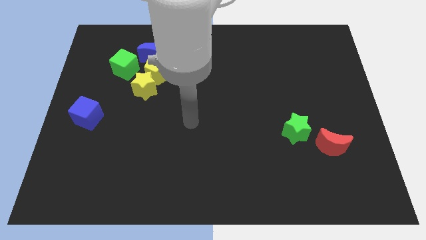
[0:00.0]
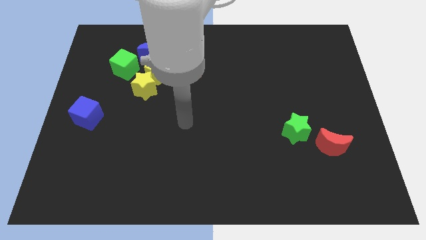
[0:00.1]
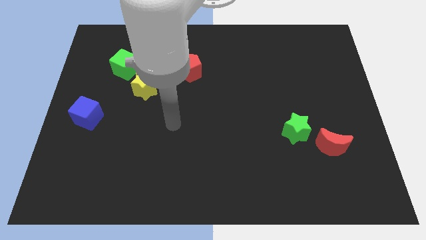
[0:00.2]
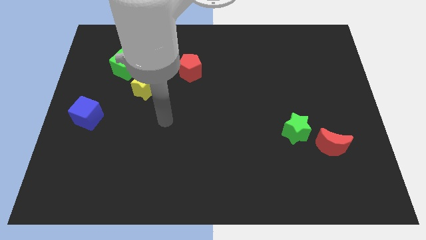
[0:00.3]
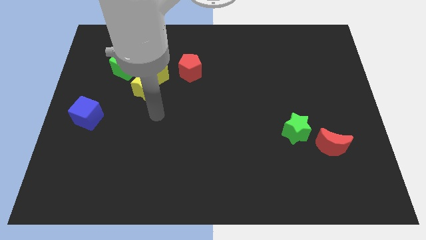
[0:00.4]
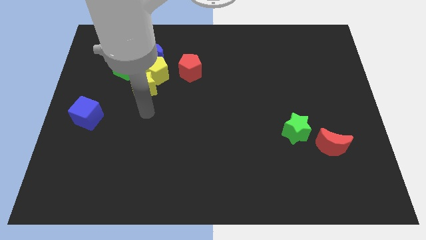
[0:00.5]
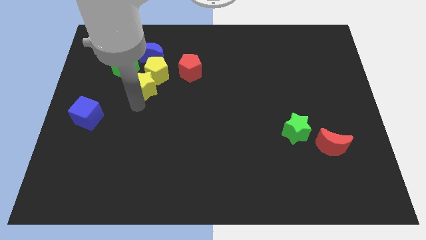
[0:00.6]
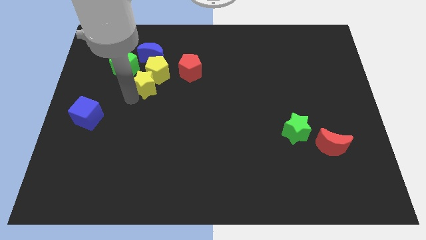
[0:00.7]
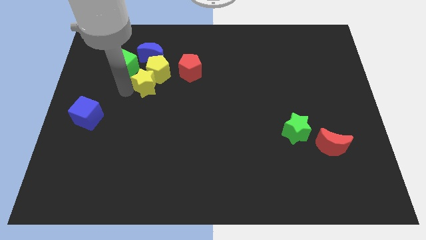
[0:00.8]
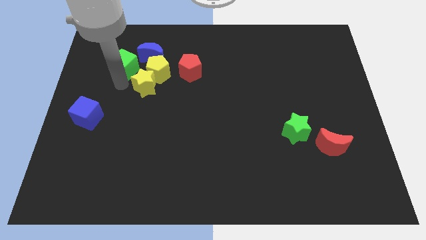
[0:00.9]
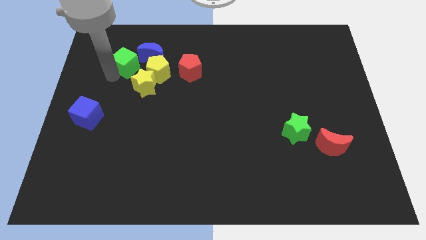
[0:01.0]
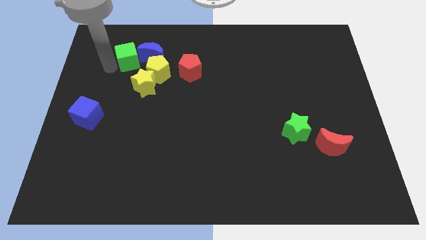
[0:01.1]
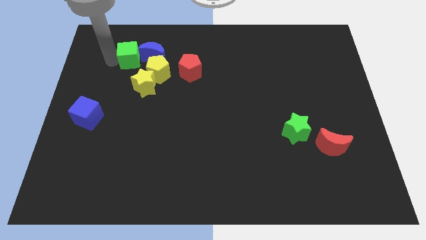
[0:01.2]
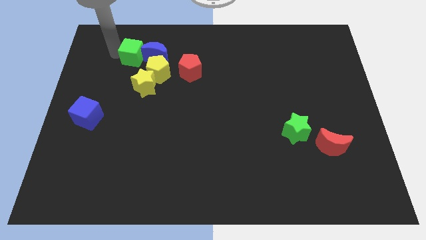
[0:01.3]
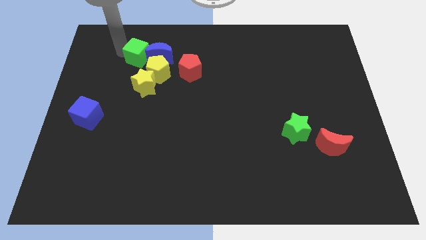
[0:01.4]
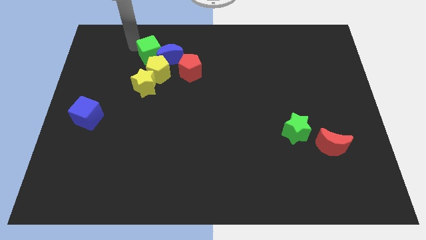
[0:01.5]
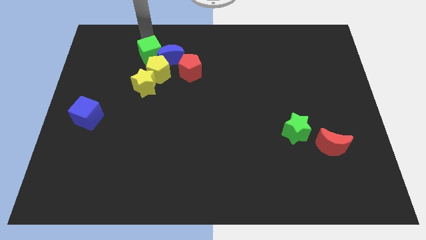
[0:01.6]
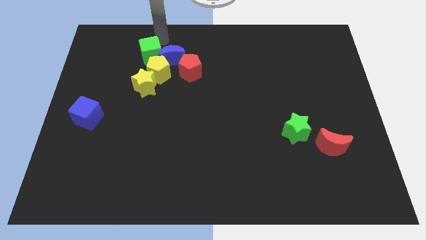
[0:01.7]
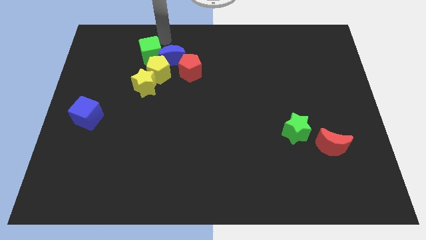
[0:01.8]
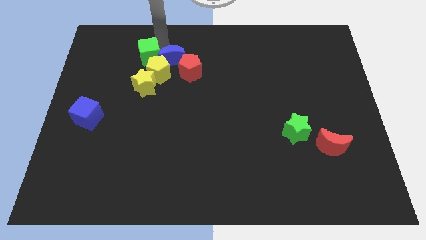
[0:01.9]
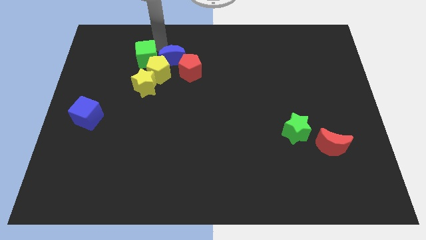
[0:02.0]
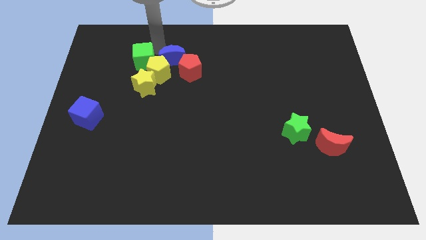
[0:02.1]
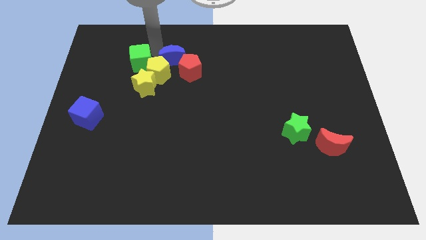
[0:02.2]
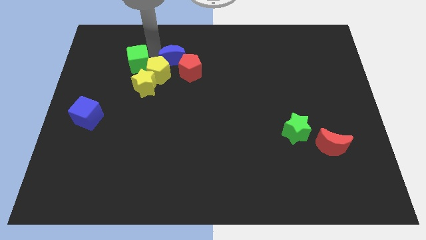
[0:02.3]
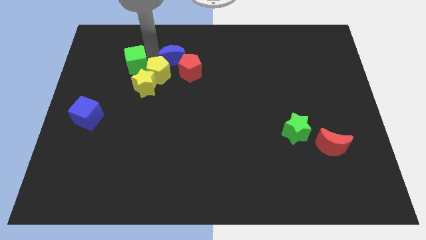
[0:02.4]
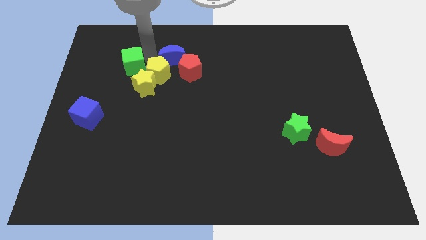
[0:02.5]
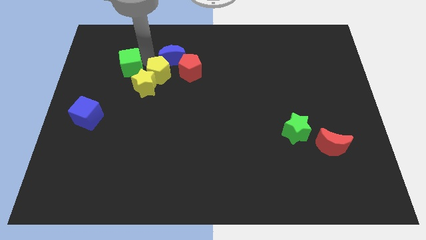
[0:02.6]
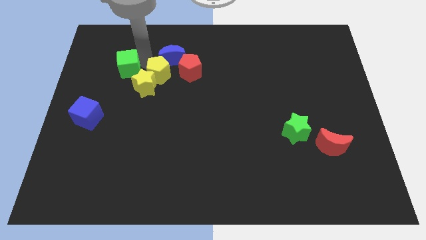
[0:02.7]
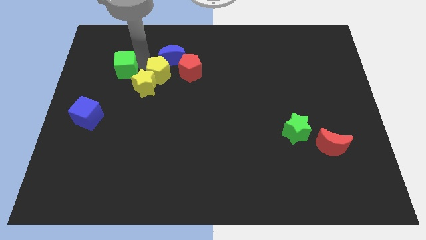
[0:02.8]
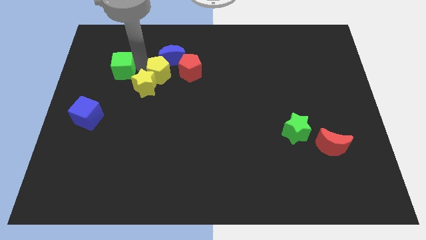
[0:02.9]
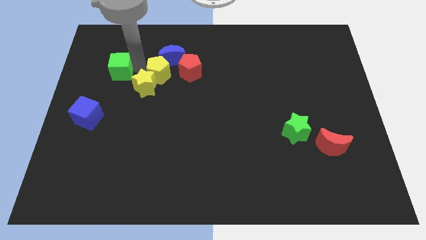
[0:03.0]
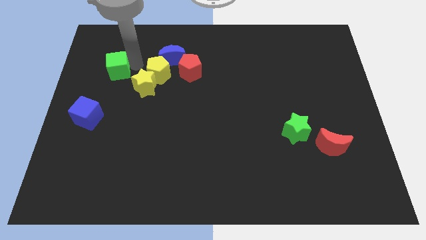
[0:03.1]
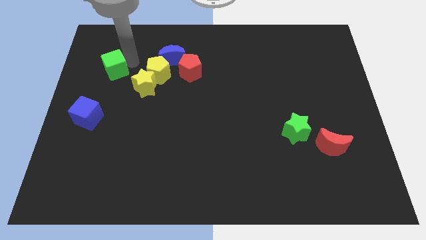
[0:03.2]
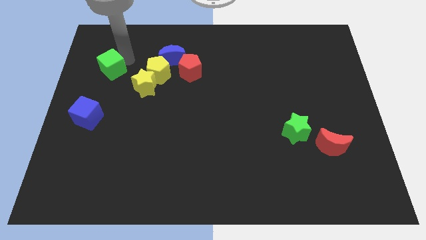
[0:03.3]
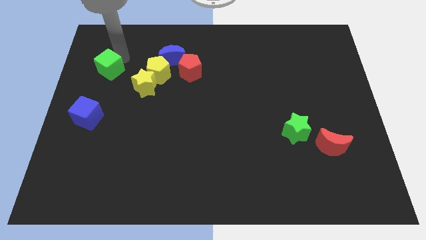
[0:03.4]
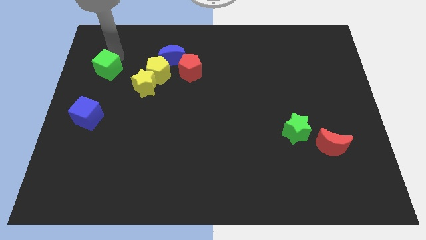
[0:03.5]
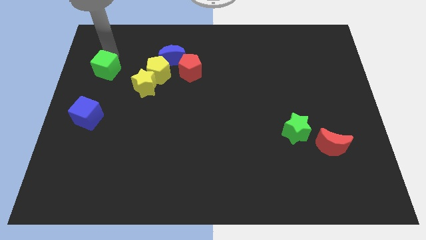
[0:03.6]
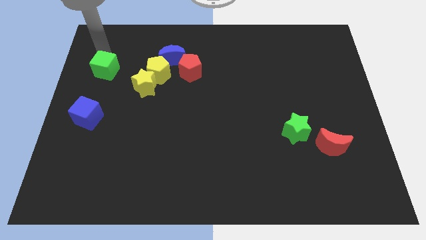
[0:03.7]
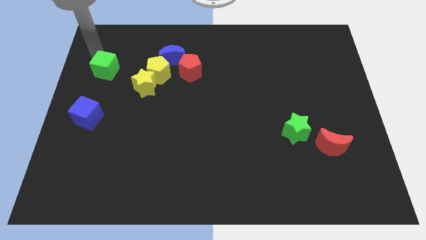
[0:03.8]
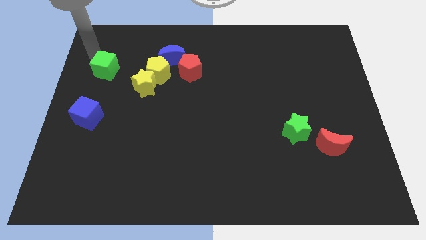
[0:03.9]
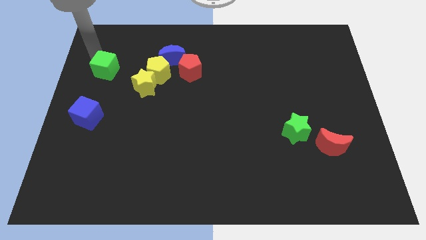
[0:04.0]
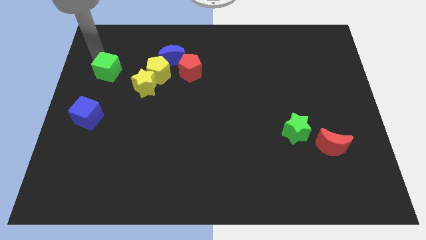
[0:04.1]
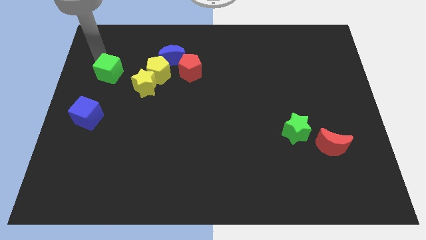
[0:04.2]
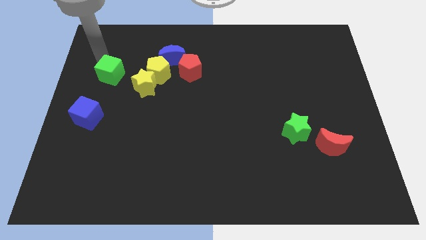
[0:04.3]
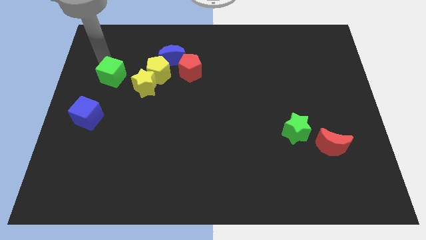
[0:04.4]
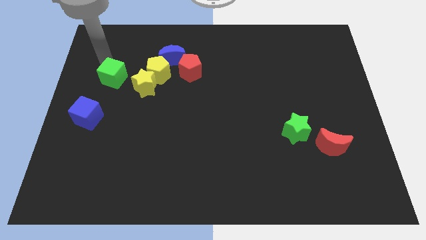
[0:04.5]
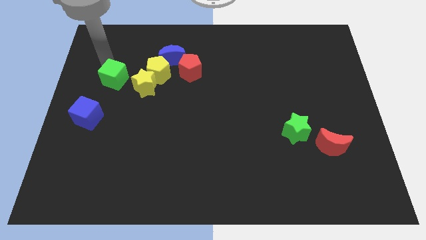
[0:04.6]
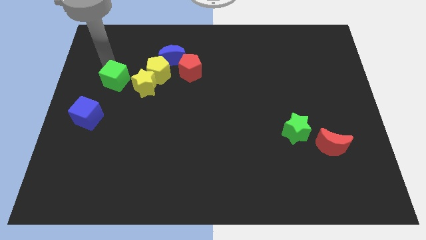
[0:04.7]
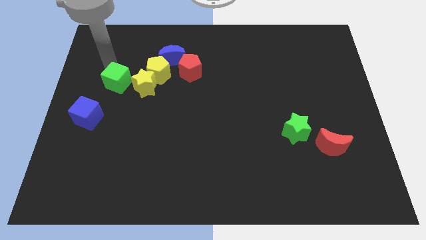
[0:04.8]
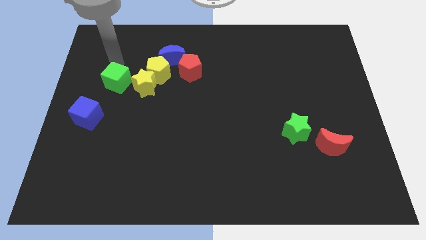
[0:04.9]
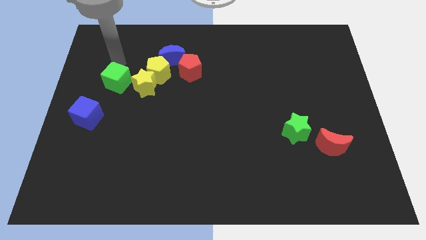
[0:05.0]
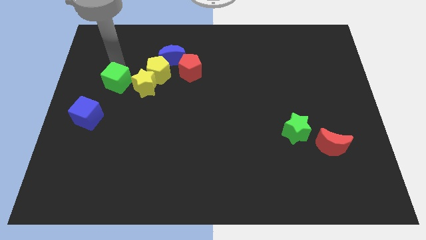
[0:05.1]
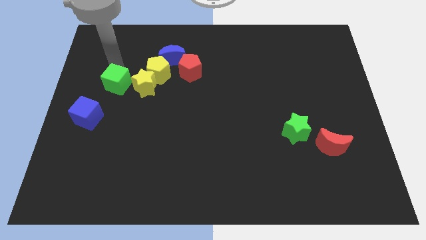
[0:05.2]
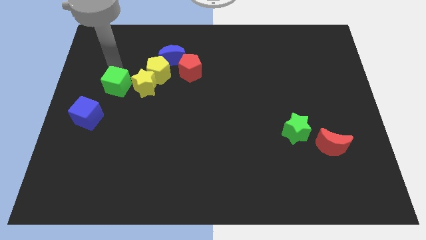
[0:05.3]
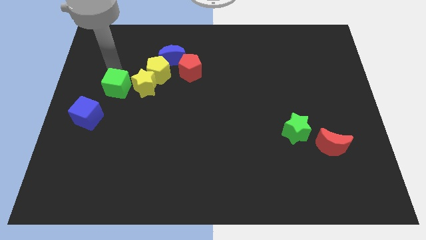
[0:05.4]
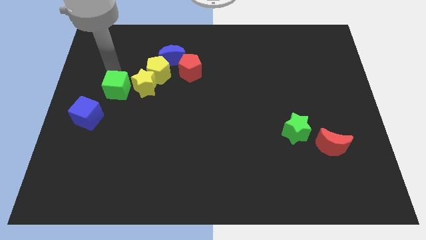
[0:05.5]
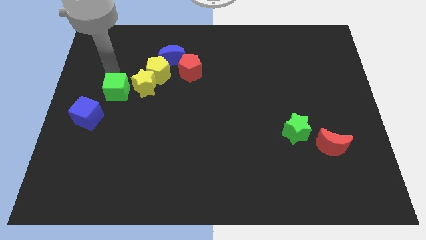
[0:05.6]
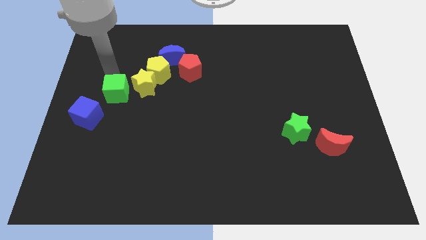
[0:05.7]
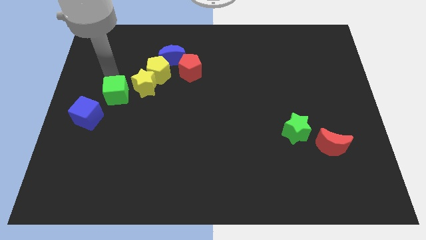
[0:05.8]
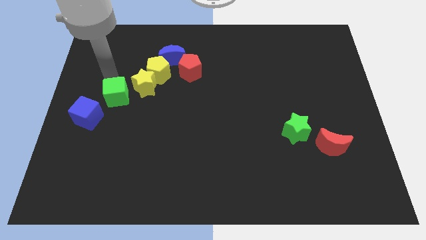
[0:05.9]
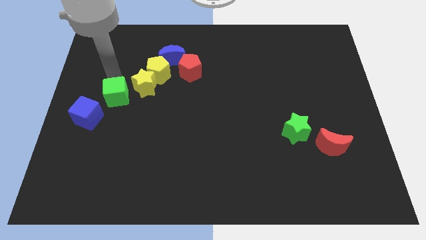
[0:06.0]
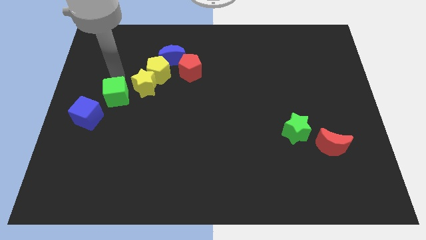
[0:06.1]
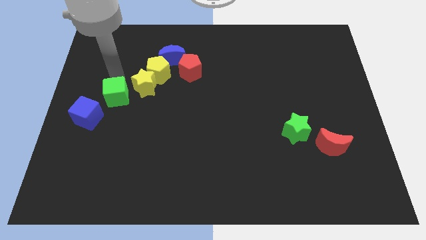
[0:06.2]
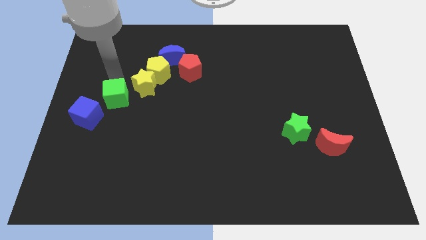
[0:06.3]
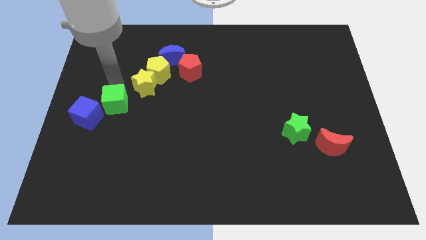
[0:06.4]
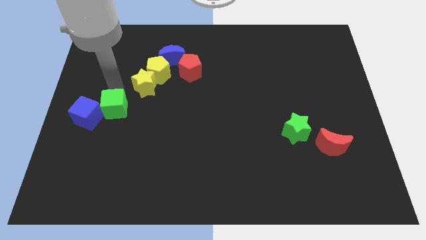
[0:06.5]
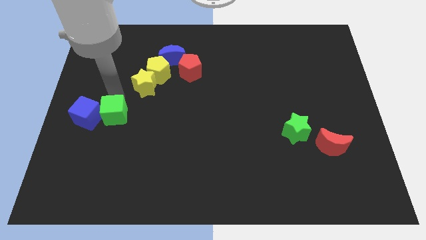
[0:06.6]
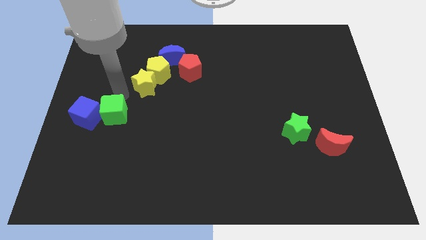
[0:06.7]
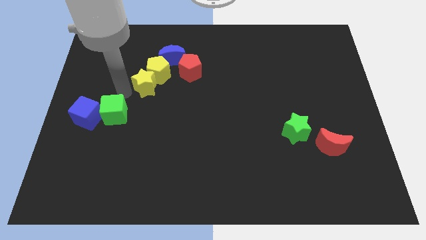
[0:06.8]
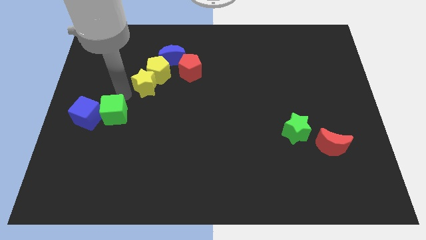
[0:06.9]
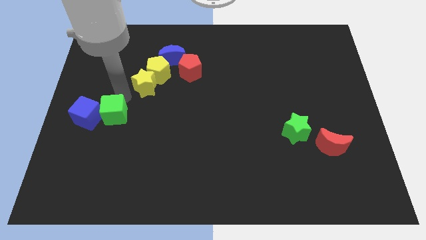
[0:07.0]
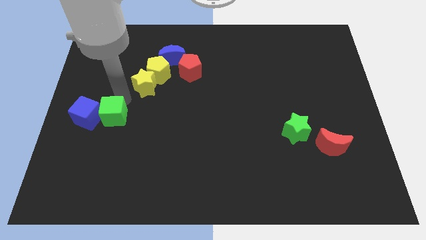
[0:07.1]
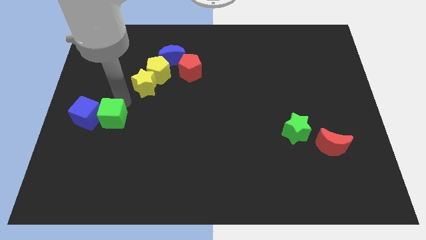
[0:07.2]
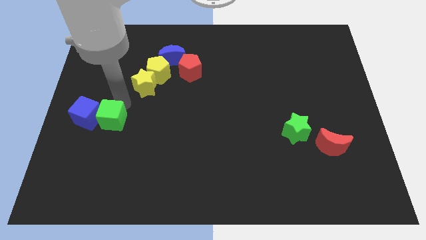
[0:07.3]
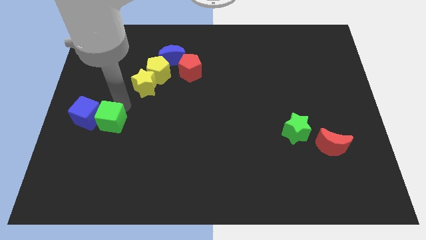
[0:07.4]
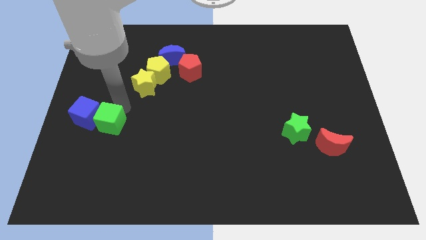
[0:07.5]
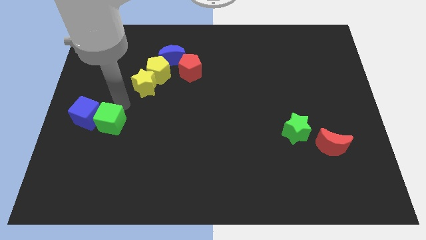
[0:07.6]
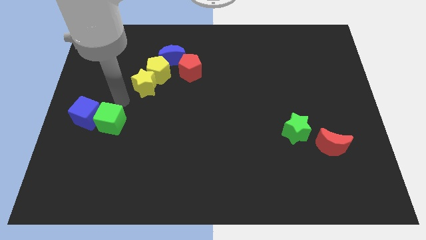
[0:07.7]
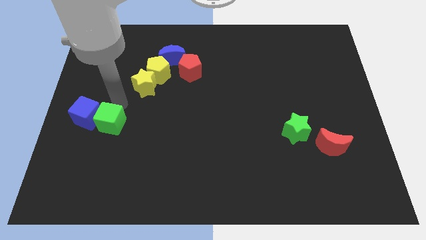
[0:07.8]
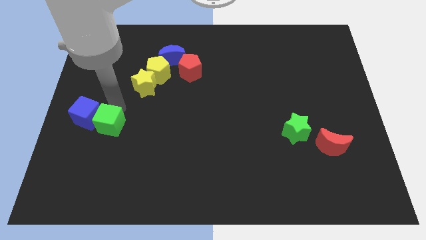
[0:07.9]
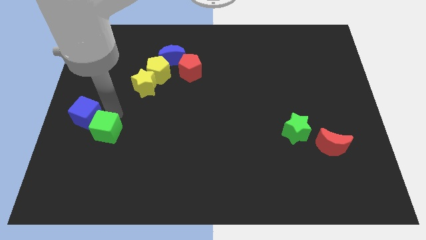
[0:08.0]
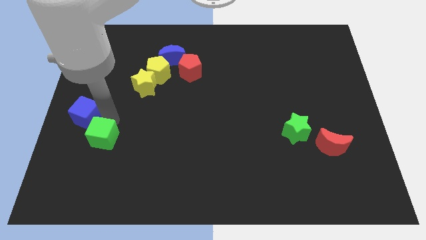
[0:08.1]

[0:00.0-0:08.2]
slide the green cube downwards

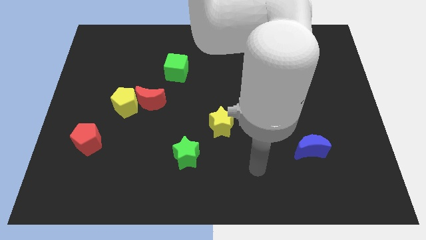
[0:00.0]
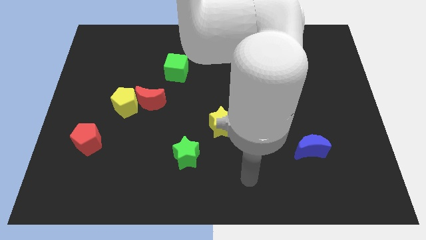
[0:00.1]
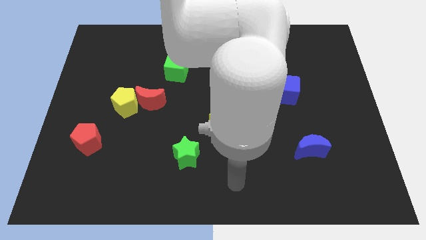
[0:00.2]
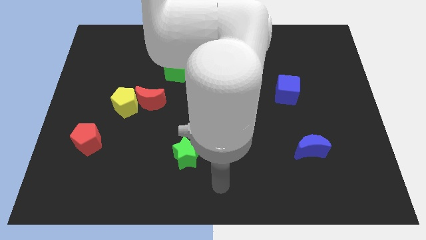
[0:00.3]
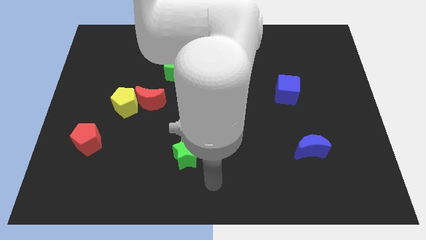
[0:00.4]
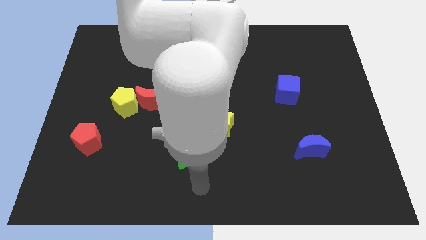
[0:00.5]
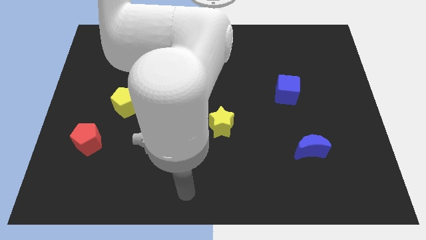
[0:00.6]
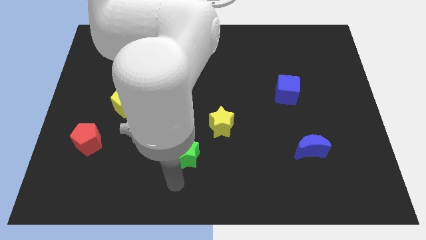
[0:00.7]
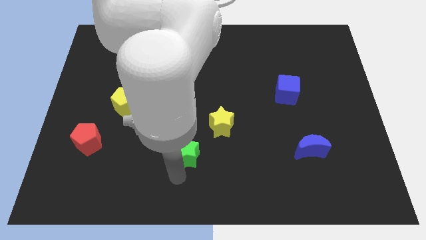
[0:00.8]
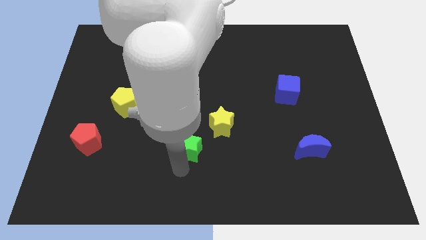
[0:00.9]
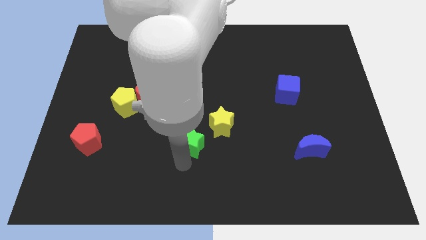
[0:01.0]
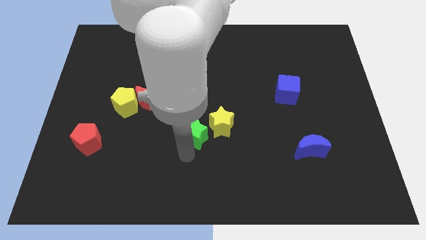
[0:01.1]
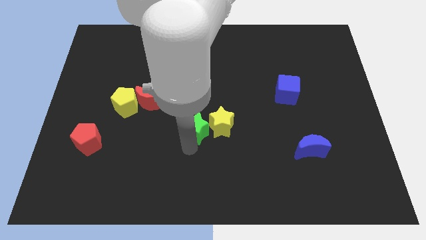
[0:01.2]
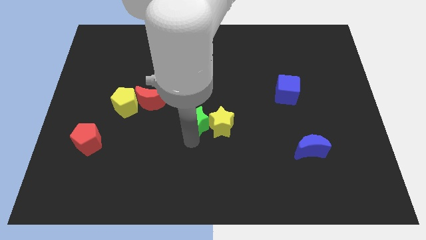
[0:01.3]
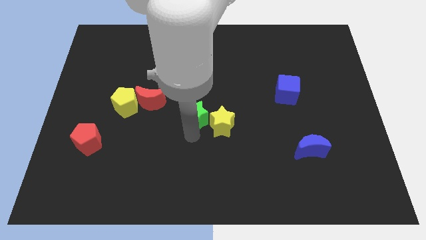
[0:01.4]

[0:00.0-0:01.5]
push the green star upwards and then to the right slightly
